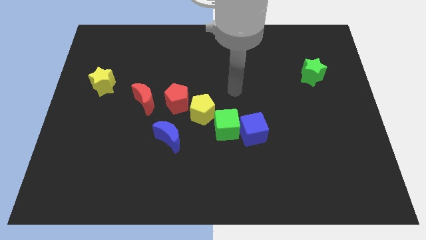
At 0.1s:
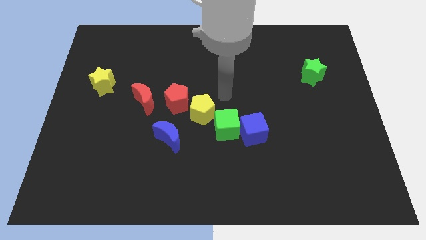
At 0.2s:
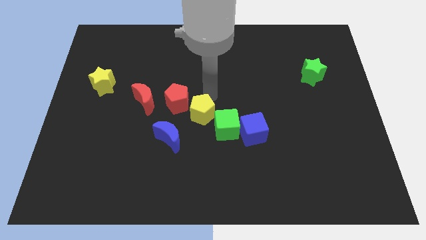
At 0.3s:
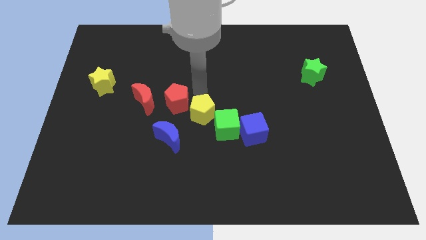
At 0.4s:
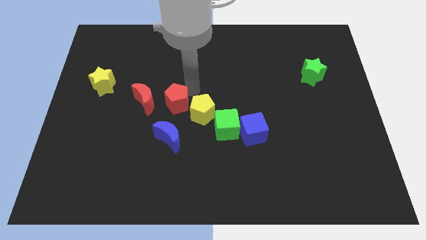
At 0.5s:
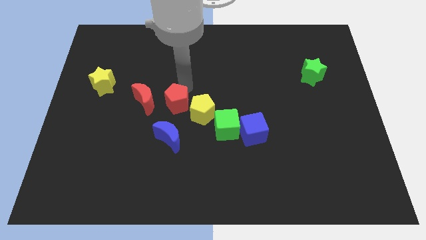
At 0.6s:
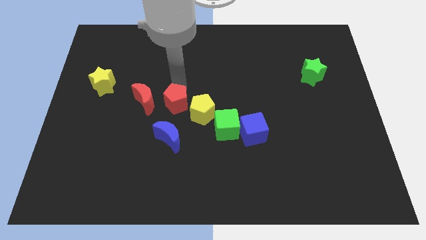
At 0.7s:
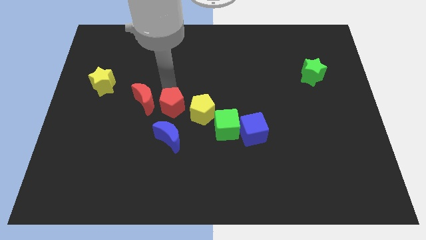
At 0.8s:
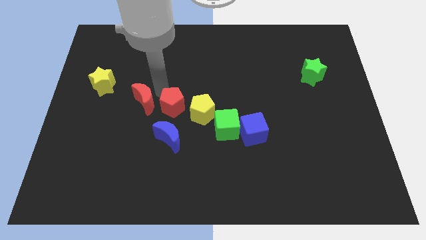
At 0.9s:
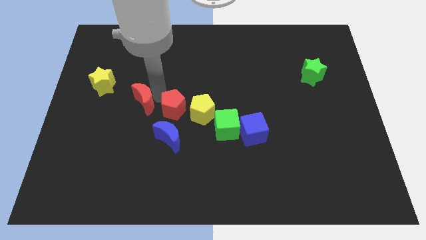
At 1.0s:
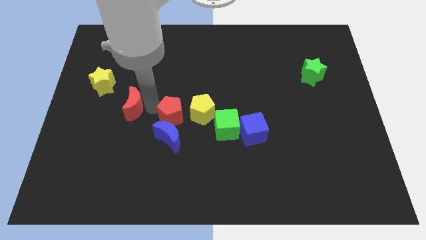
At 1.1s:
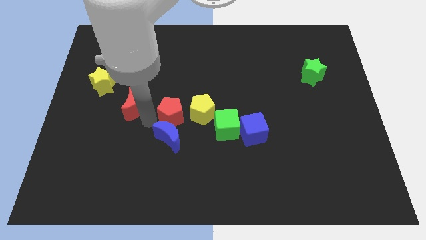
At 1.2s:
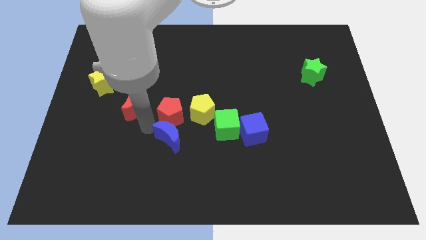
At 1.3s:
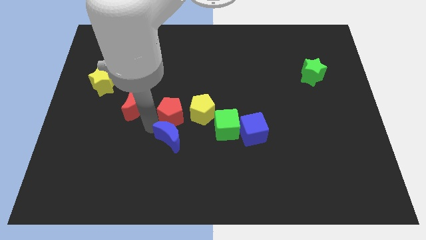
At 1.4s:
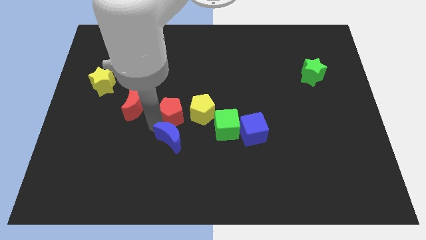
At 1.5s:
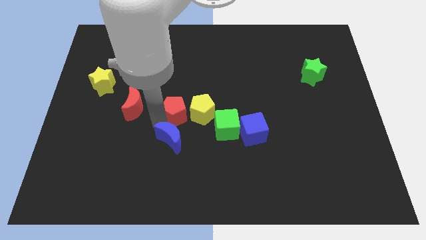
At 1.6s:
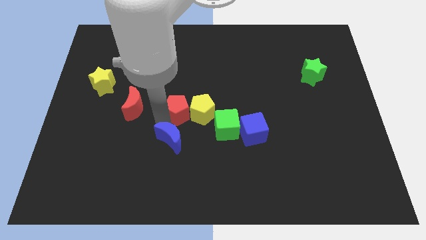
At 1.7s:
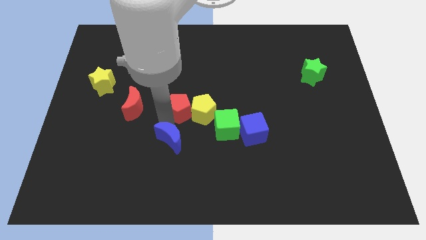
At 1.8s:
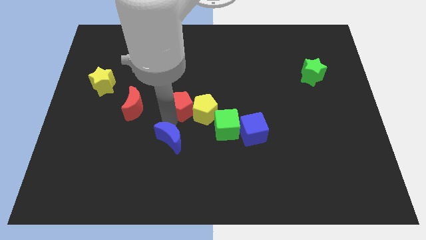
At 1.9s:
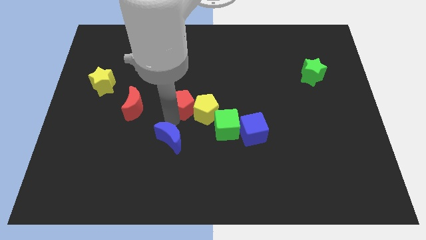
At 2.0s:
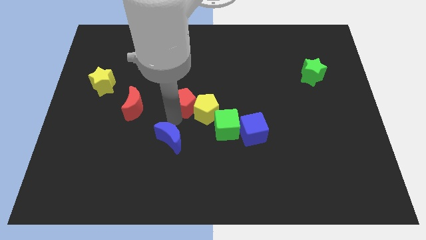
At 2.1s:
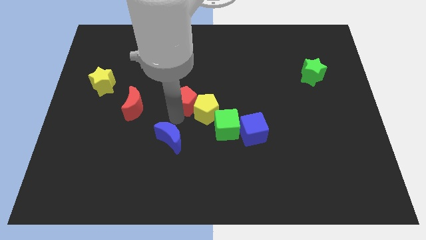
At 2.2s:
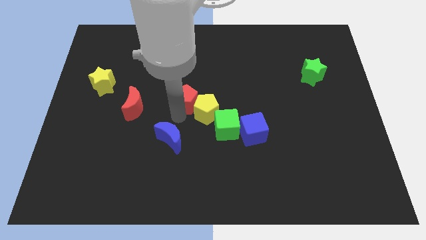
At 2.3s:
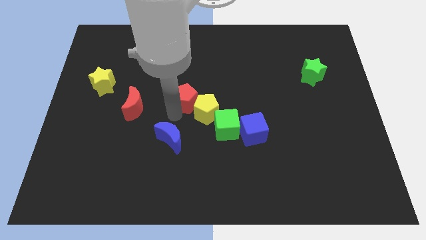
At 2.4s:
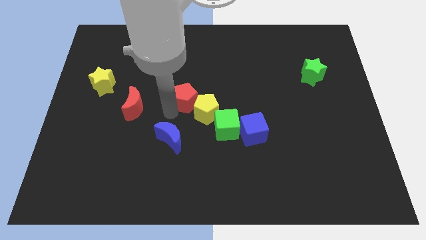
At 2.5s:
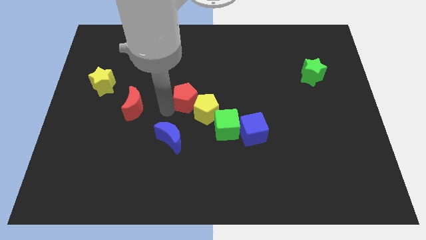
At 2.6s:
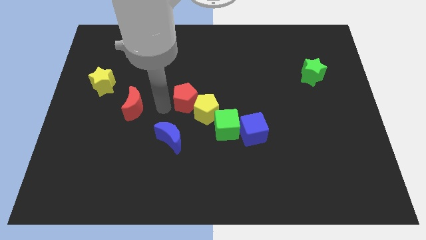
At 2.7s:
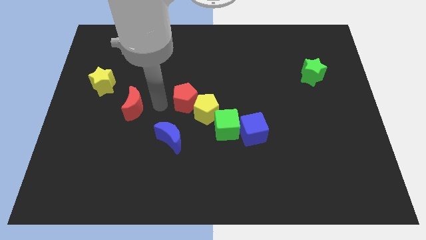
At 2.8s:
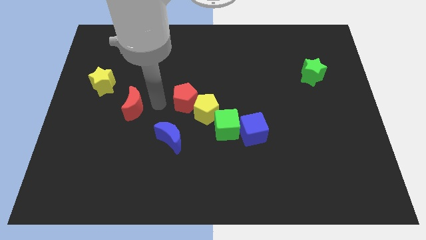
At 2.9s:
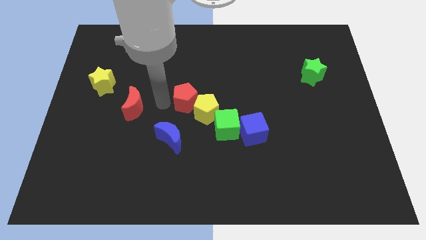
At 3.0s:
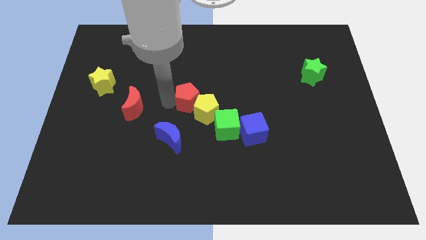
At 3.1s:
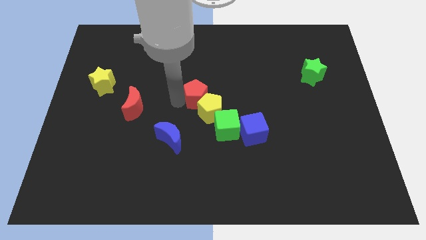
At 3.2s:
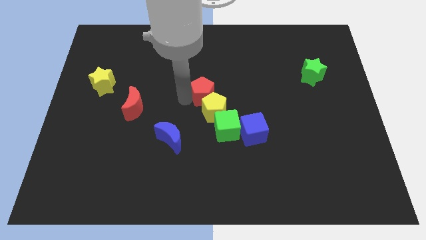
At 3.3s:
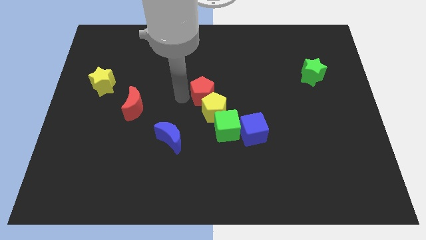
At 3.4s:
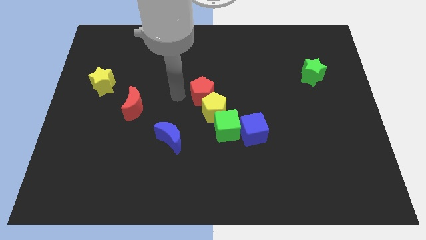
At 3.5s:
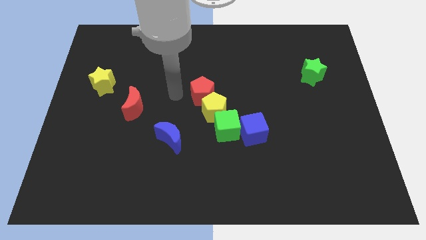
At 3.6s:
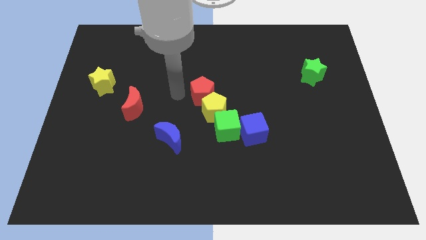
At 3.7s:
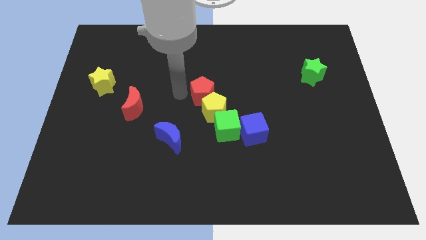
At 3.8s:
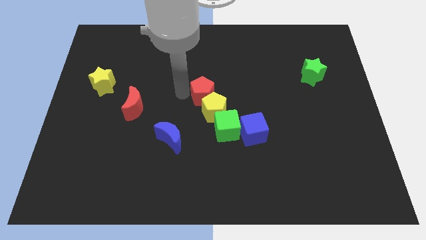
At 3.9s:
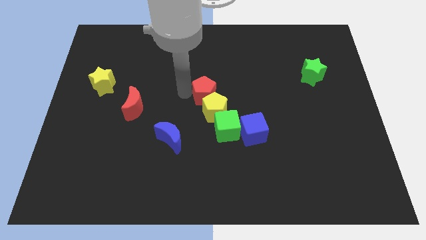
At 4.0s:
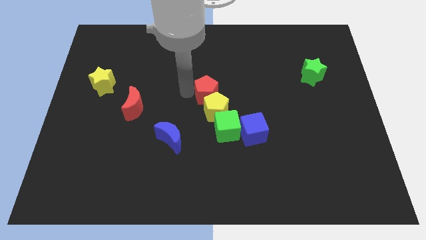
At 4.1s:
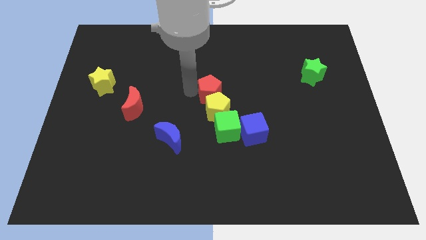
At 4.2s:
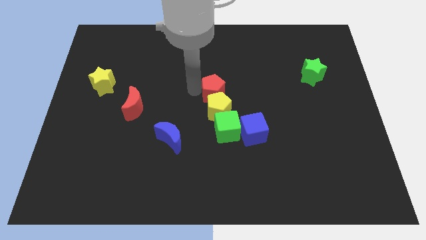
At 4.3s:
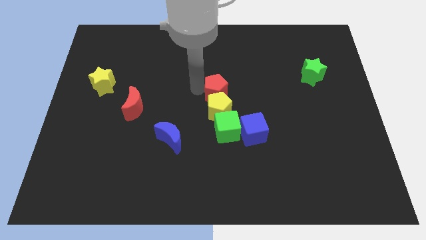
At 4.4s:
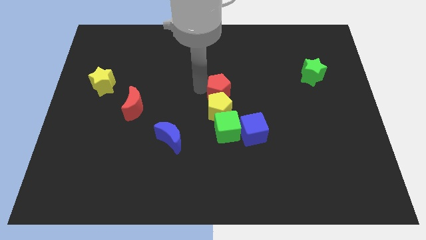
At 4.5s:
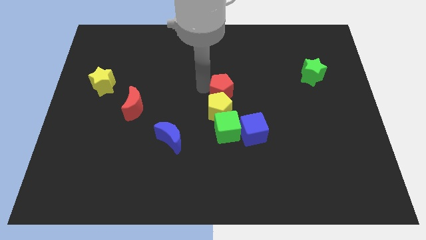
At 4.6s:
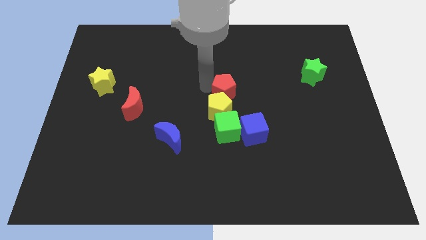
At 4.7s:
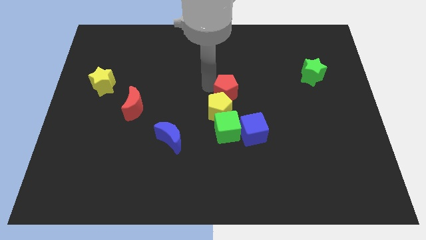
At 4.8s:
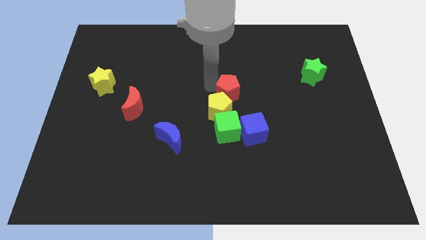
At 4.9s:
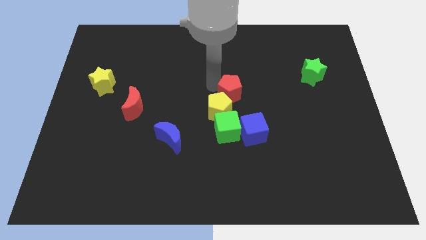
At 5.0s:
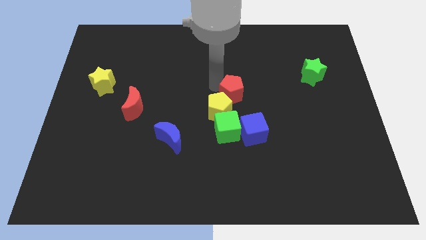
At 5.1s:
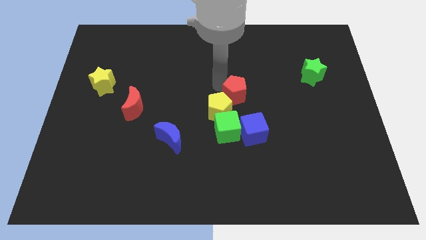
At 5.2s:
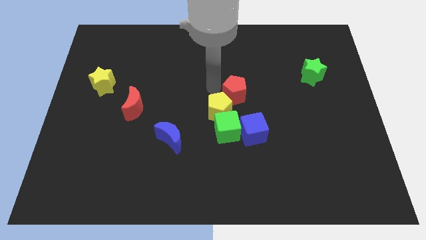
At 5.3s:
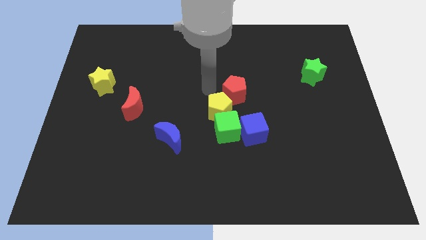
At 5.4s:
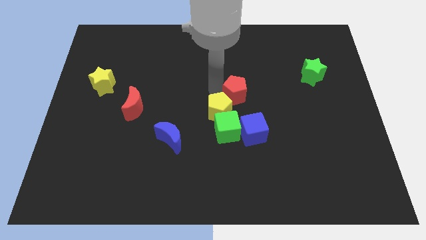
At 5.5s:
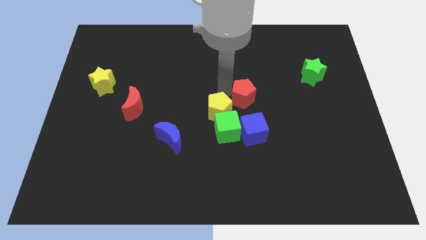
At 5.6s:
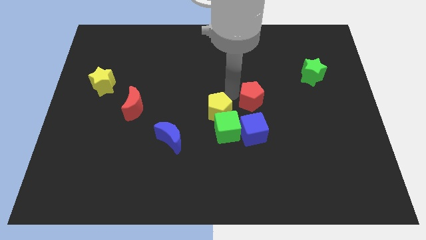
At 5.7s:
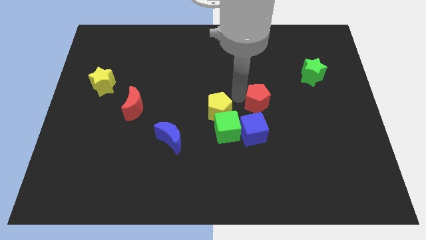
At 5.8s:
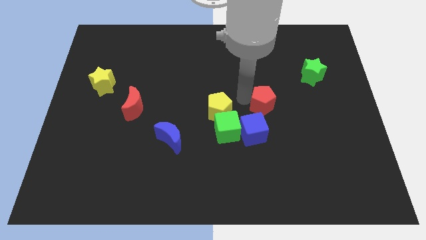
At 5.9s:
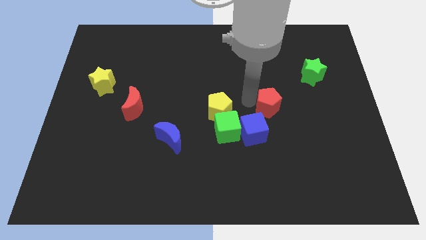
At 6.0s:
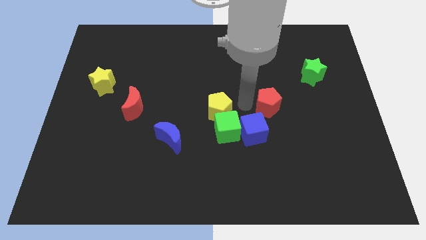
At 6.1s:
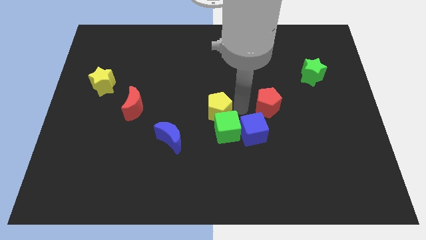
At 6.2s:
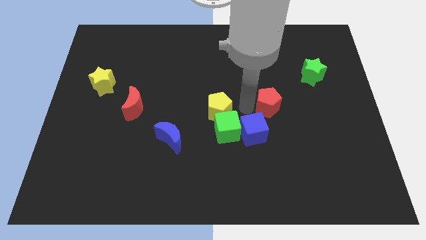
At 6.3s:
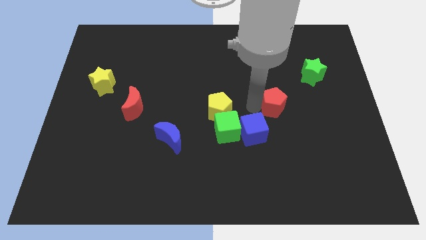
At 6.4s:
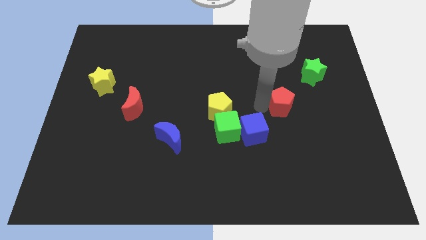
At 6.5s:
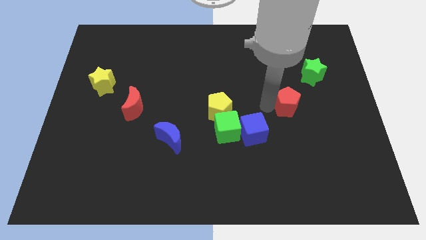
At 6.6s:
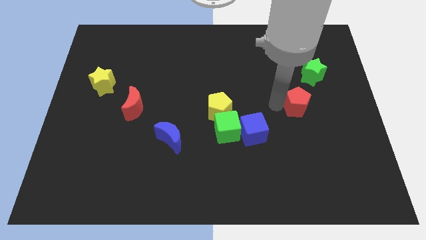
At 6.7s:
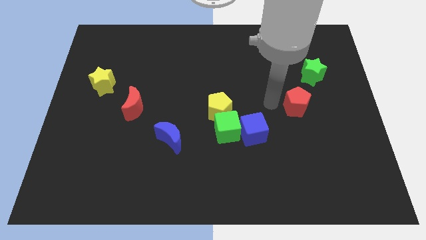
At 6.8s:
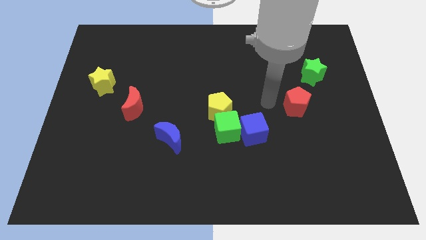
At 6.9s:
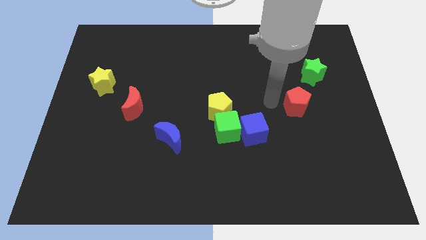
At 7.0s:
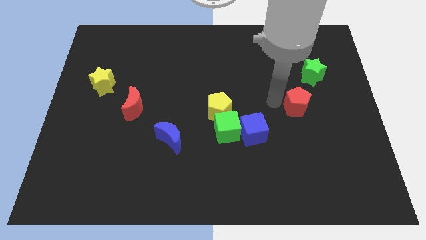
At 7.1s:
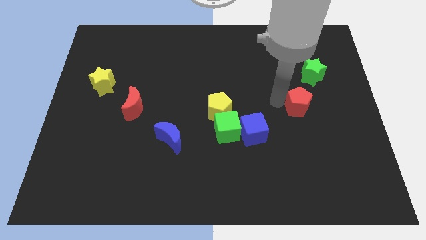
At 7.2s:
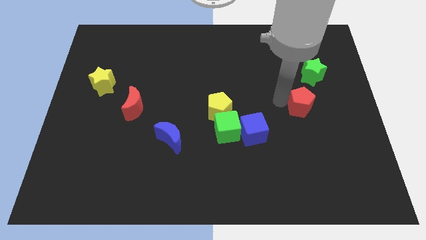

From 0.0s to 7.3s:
push the red pentagon below the green star
